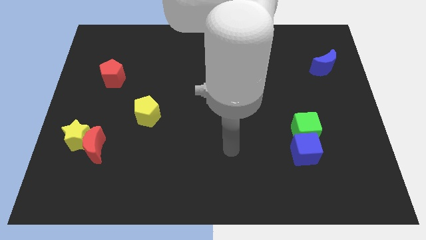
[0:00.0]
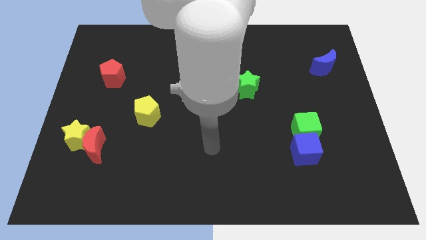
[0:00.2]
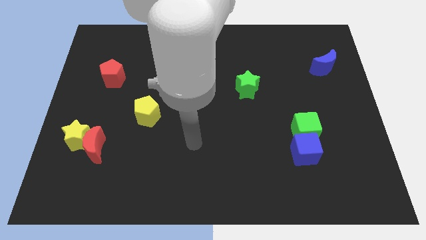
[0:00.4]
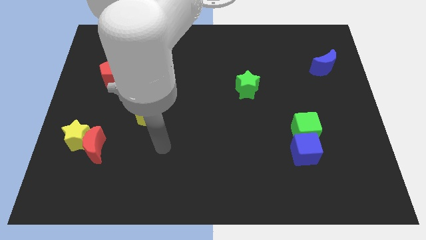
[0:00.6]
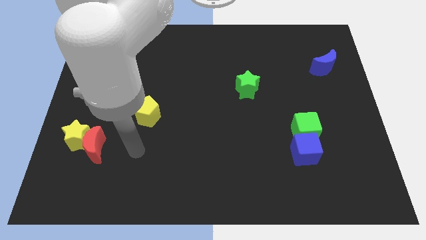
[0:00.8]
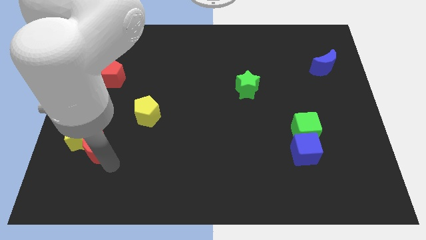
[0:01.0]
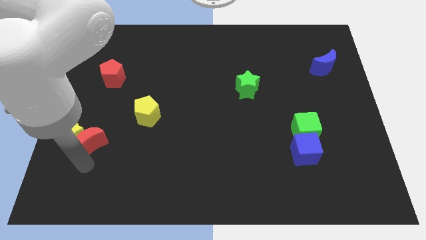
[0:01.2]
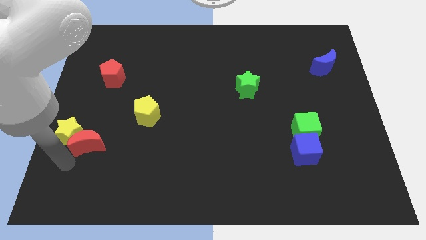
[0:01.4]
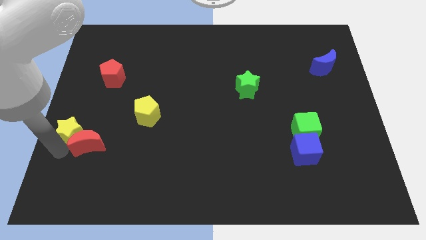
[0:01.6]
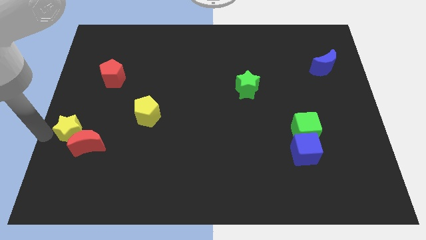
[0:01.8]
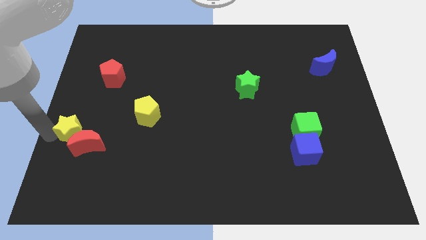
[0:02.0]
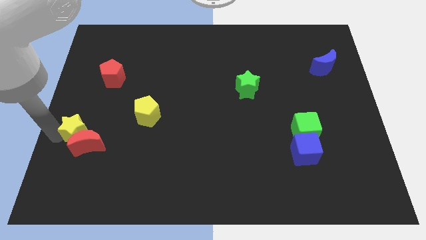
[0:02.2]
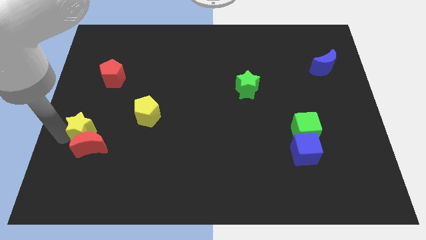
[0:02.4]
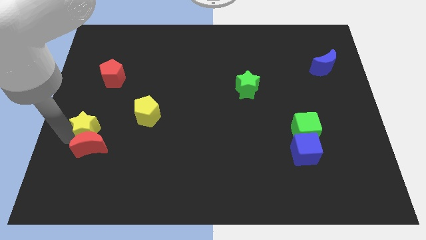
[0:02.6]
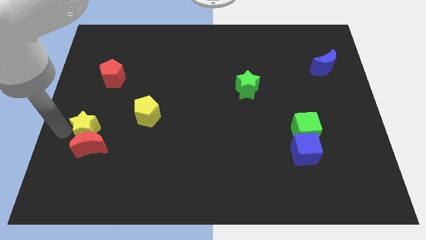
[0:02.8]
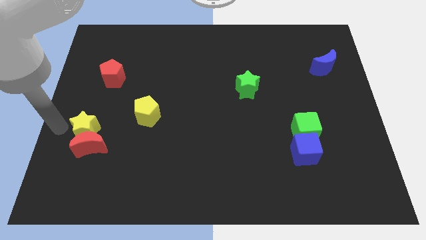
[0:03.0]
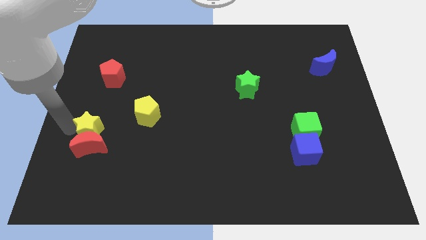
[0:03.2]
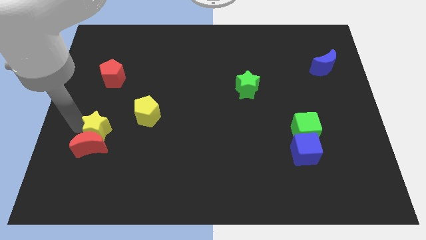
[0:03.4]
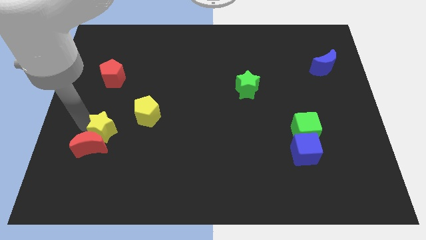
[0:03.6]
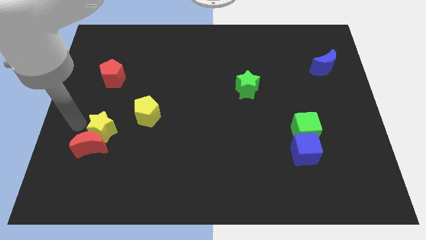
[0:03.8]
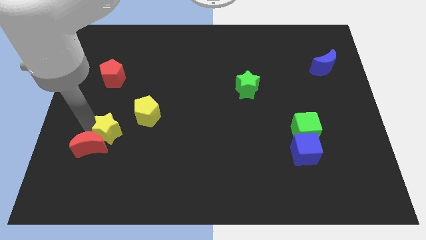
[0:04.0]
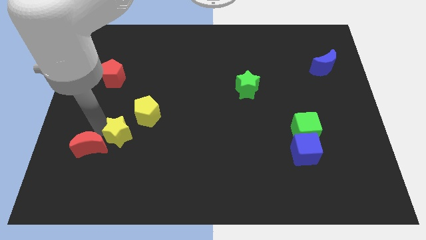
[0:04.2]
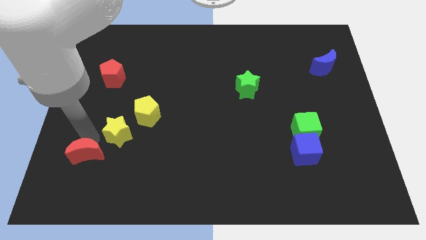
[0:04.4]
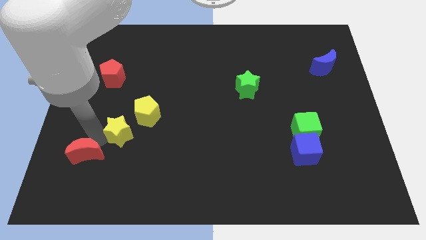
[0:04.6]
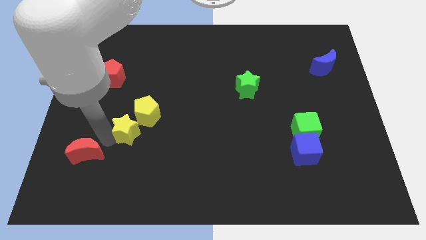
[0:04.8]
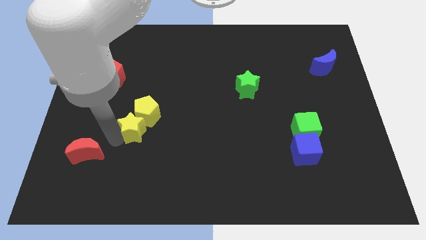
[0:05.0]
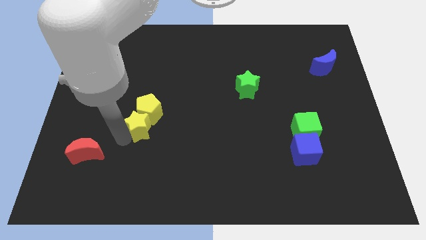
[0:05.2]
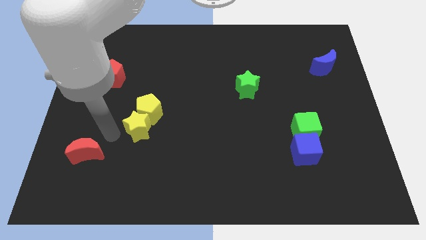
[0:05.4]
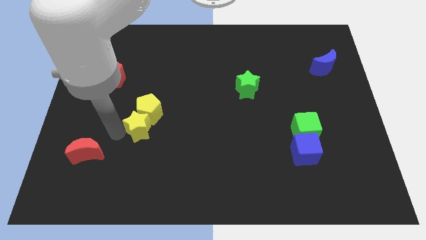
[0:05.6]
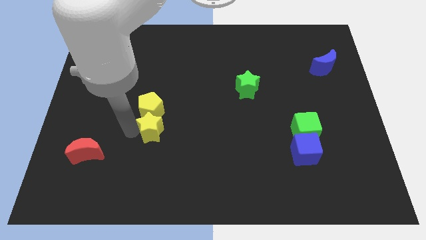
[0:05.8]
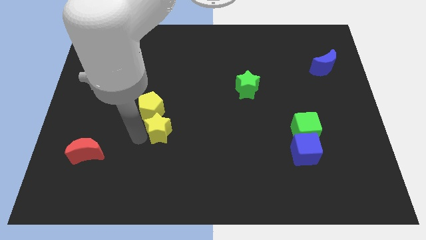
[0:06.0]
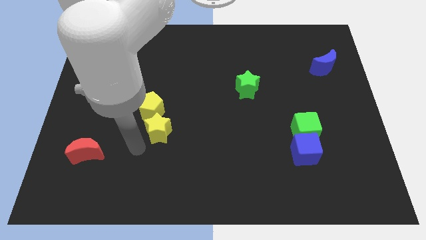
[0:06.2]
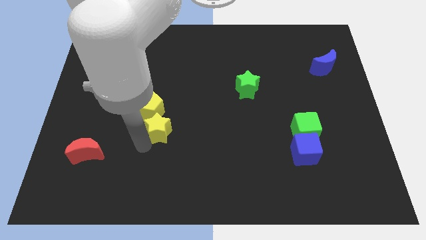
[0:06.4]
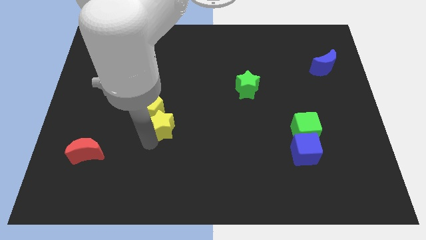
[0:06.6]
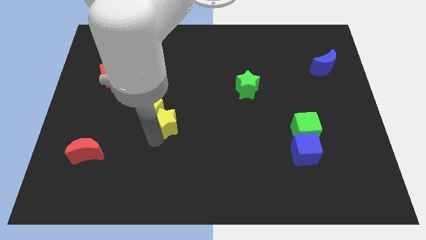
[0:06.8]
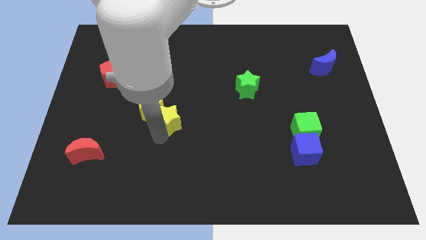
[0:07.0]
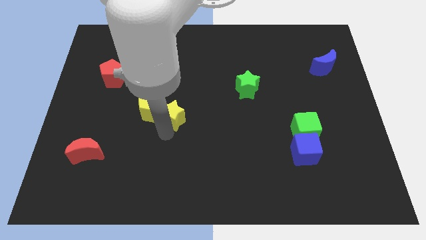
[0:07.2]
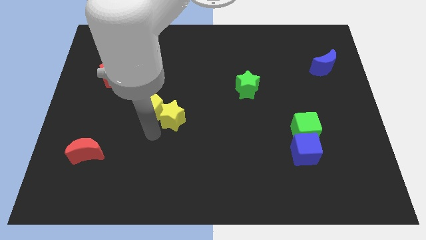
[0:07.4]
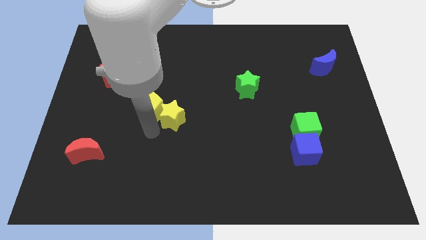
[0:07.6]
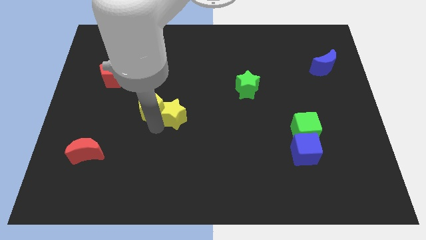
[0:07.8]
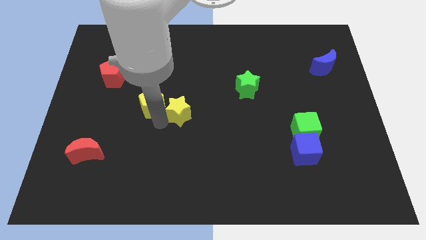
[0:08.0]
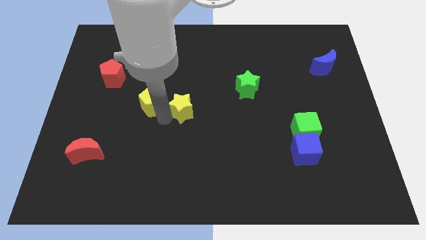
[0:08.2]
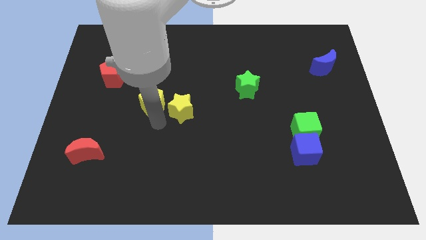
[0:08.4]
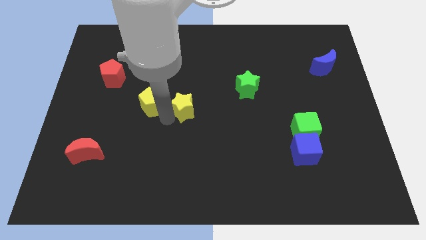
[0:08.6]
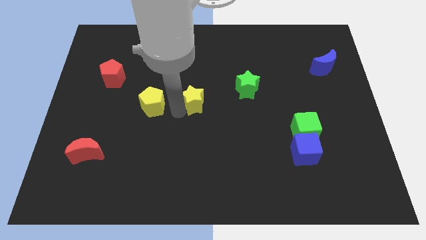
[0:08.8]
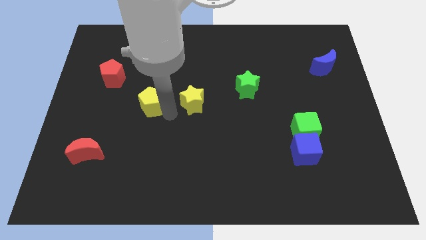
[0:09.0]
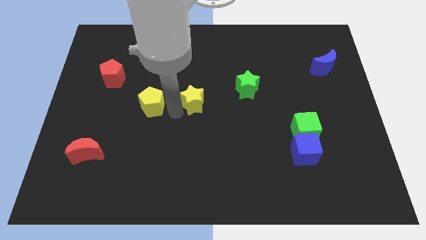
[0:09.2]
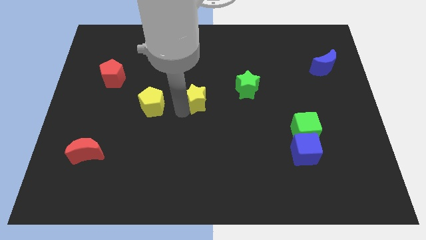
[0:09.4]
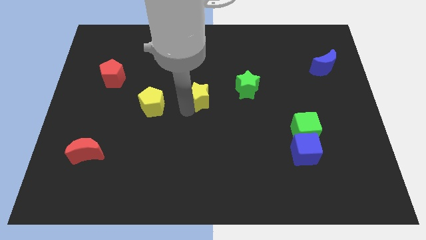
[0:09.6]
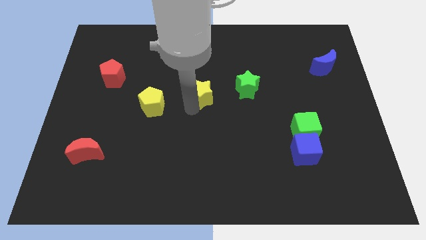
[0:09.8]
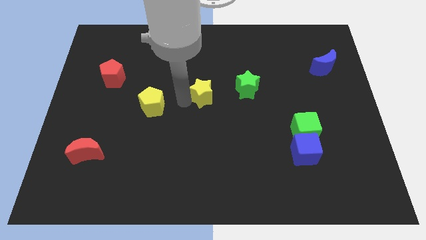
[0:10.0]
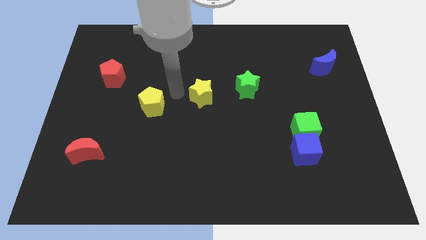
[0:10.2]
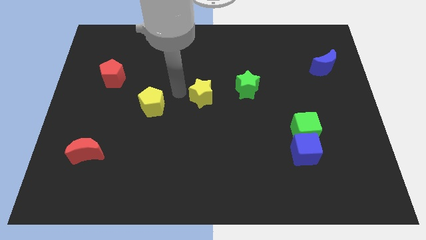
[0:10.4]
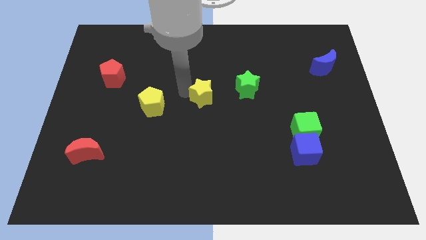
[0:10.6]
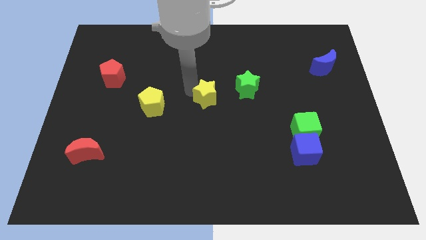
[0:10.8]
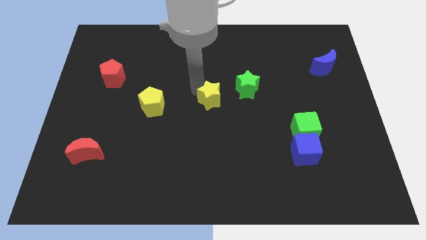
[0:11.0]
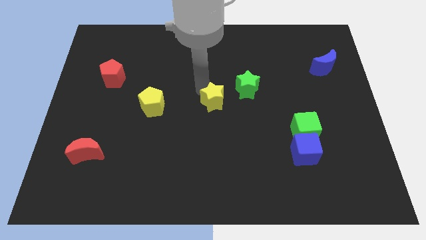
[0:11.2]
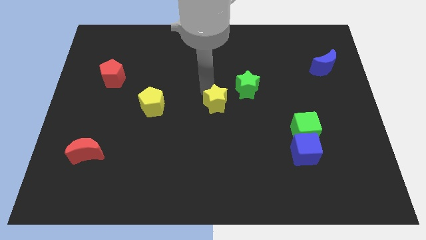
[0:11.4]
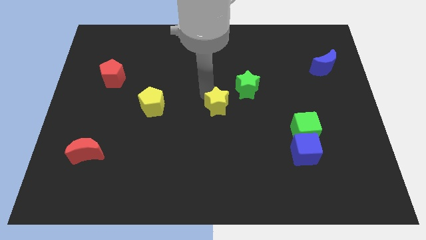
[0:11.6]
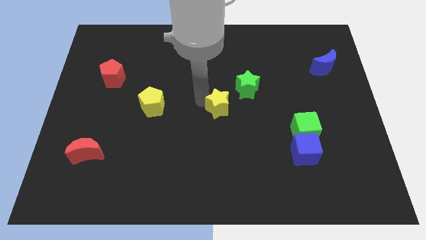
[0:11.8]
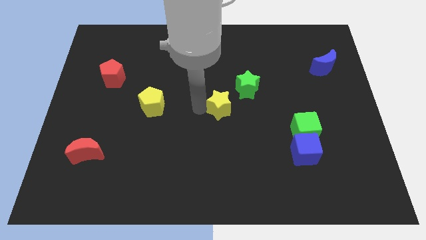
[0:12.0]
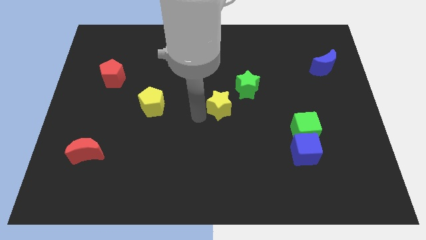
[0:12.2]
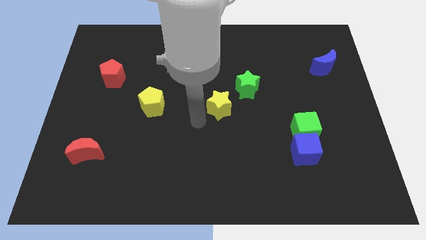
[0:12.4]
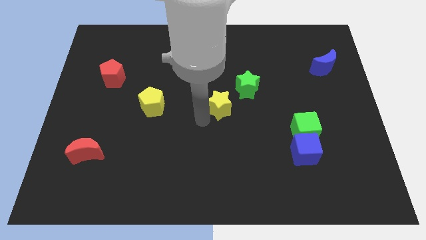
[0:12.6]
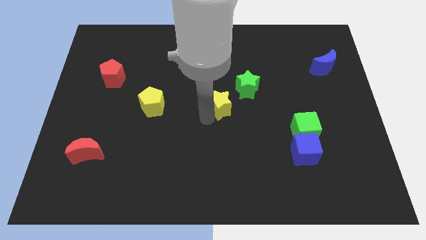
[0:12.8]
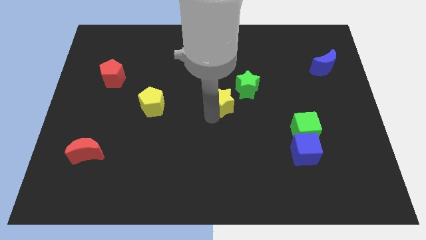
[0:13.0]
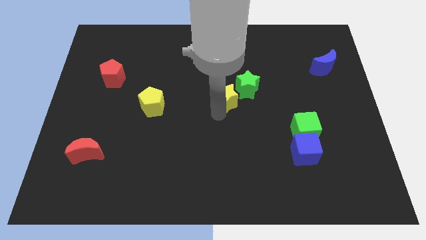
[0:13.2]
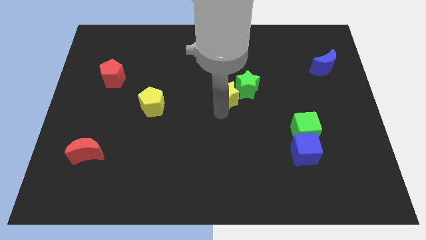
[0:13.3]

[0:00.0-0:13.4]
put the yellow star close to the green star
